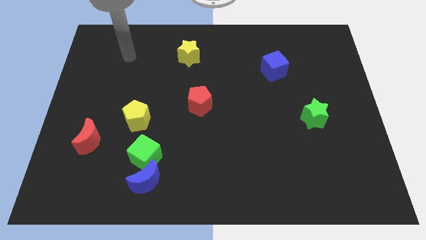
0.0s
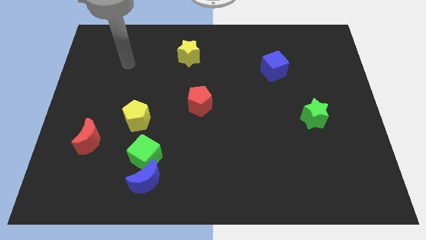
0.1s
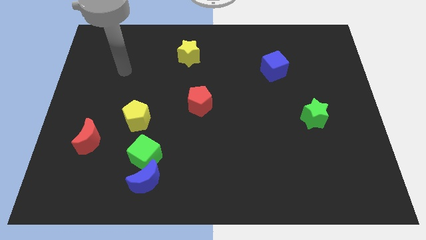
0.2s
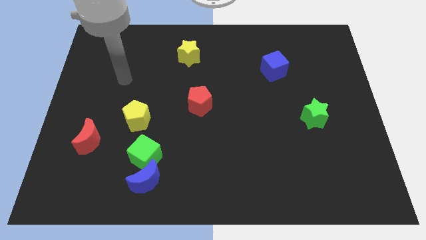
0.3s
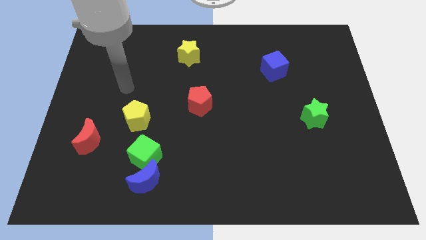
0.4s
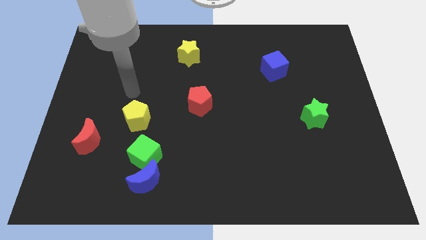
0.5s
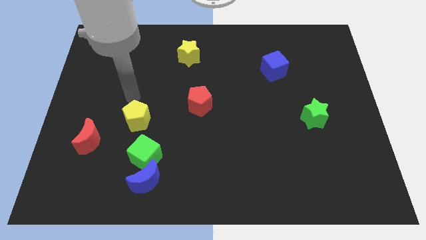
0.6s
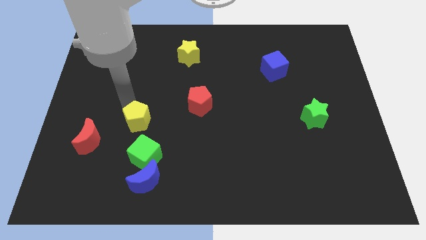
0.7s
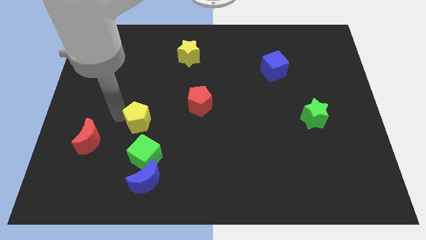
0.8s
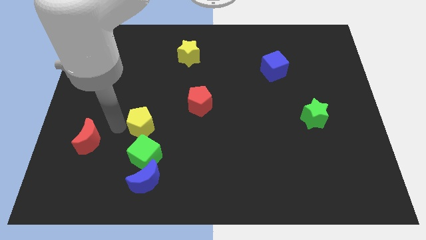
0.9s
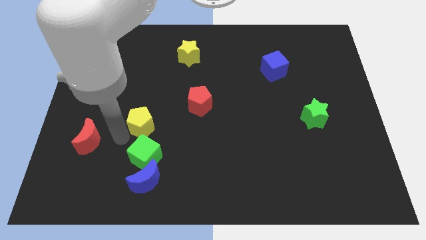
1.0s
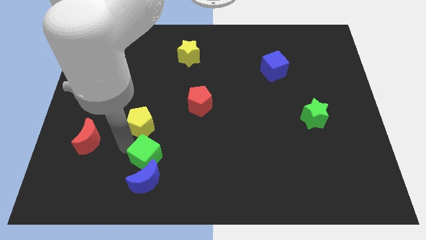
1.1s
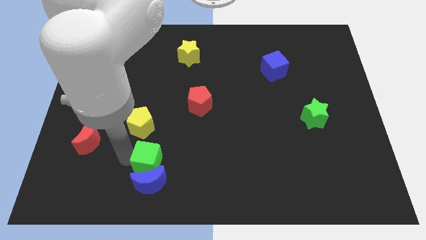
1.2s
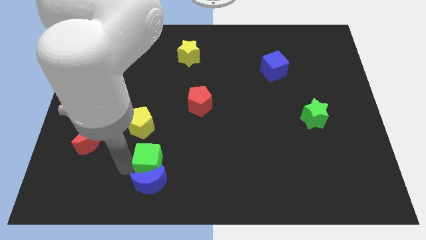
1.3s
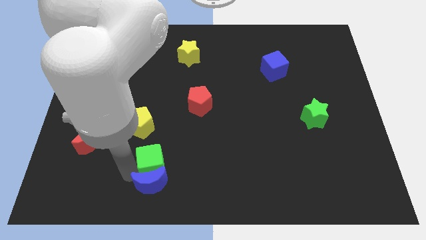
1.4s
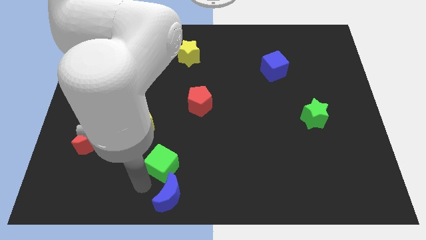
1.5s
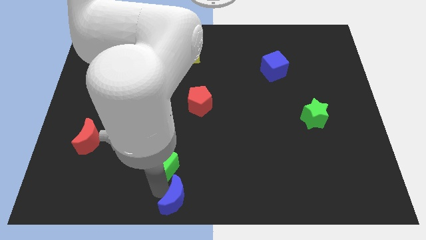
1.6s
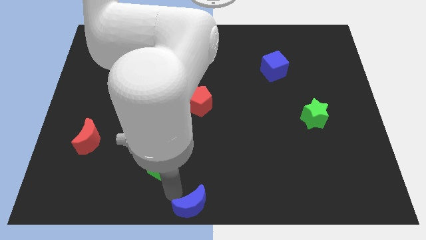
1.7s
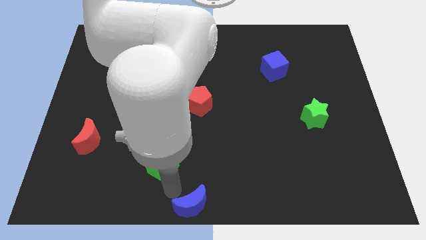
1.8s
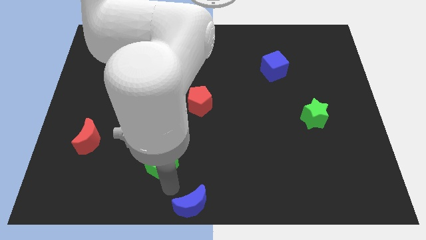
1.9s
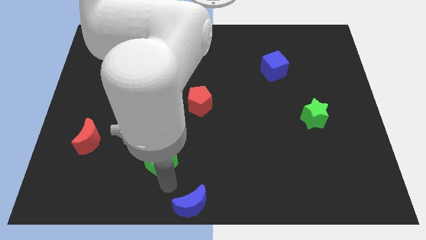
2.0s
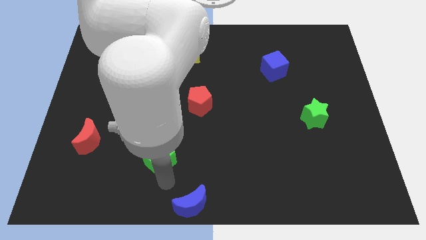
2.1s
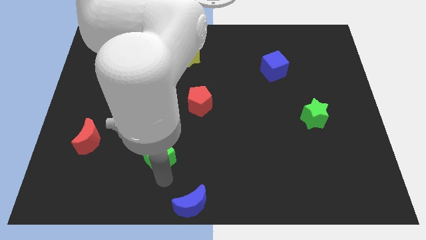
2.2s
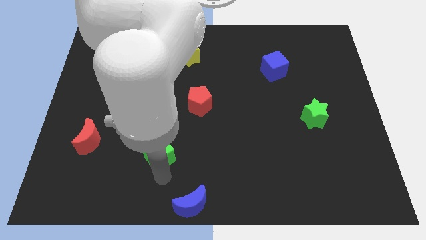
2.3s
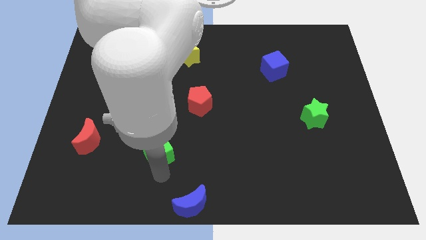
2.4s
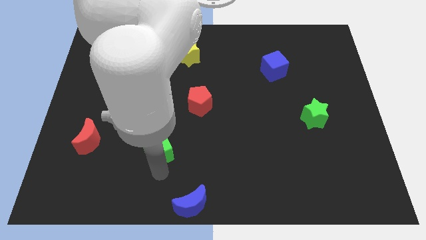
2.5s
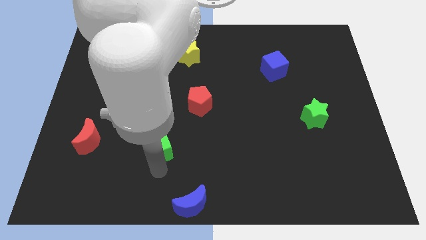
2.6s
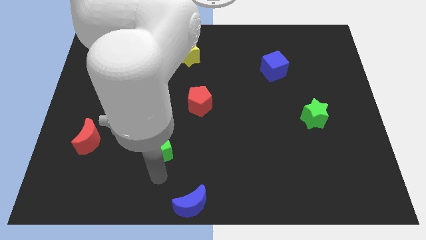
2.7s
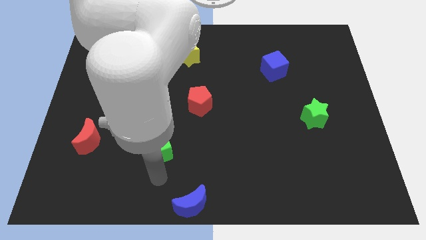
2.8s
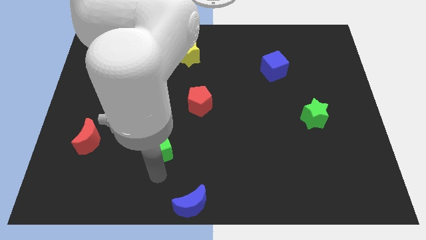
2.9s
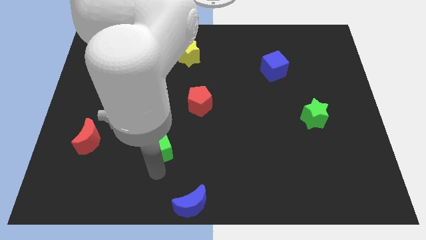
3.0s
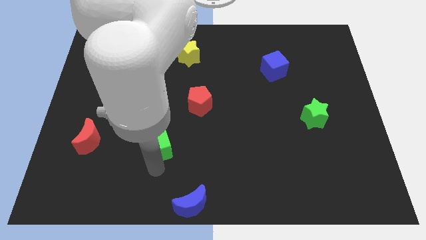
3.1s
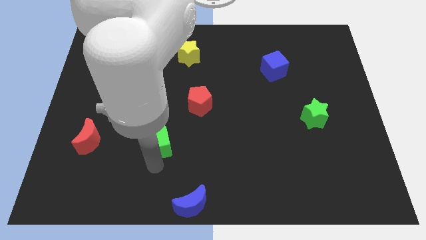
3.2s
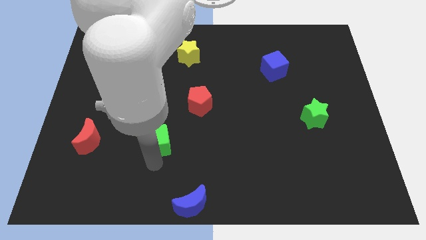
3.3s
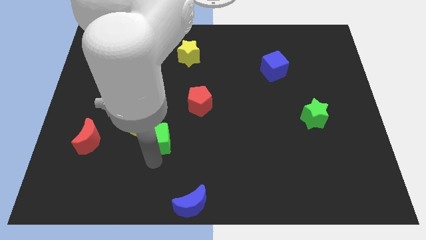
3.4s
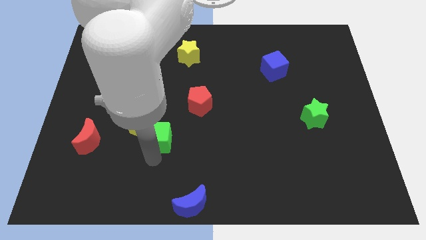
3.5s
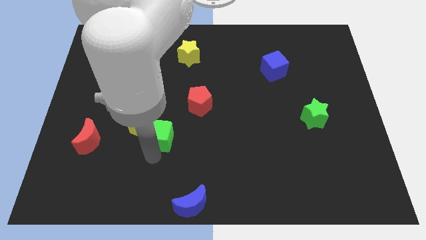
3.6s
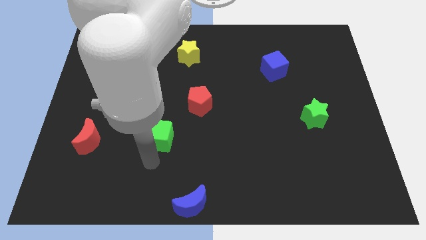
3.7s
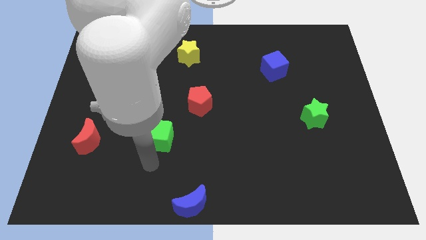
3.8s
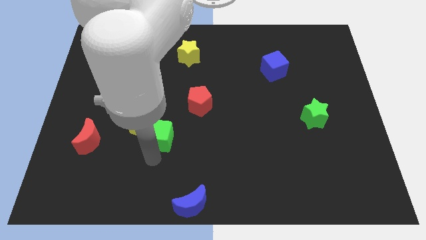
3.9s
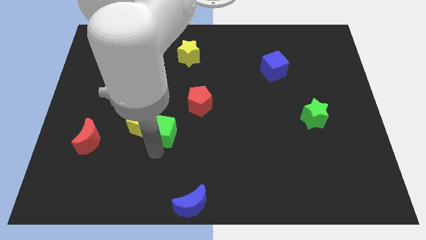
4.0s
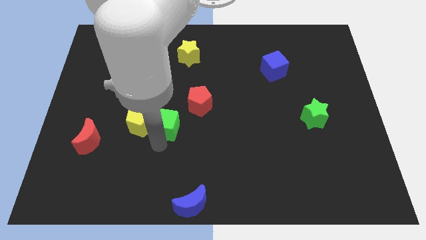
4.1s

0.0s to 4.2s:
slide the green cube a bit up

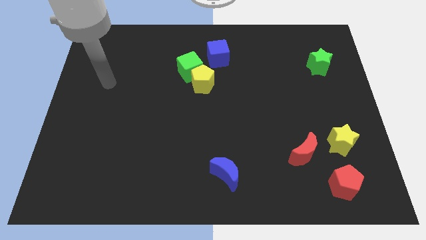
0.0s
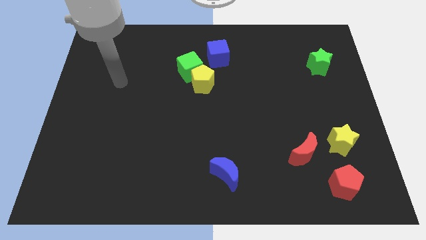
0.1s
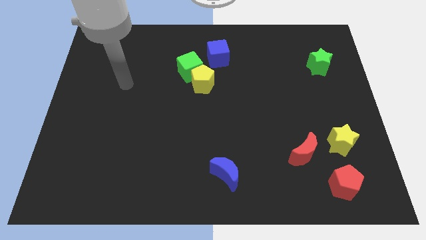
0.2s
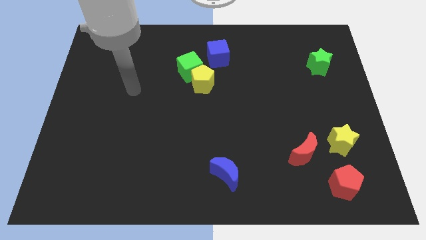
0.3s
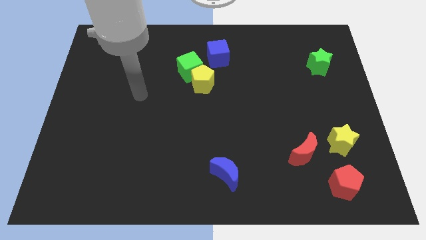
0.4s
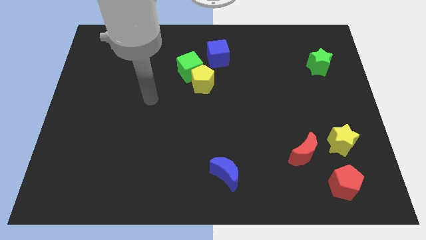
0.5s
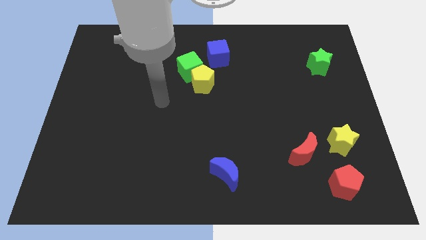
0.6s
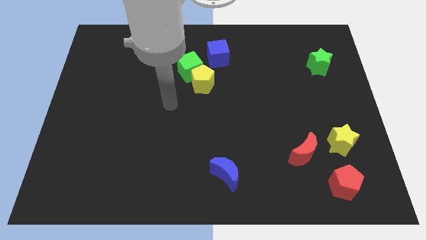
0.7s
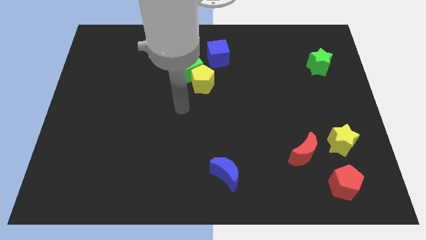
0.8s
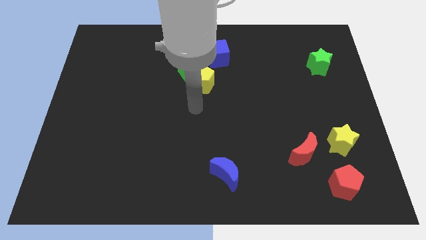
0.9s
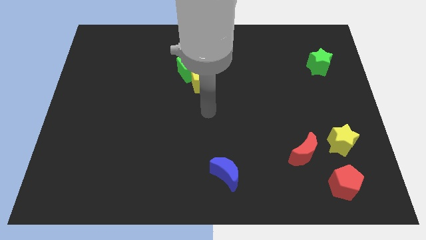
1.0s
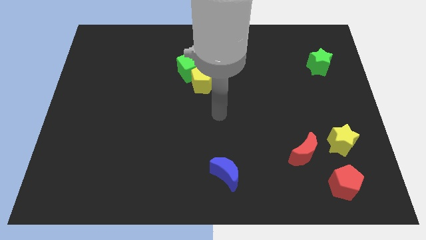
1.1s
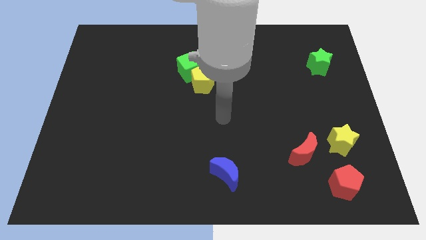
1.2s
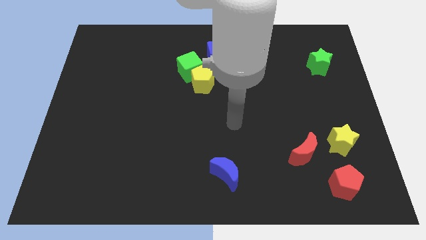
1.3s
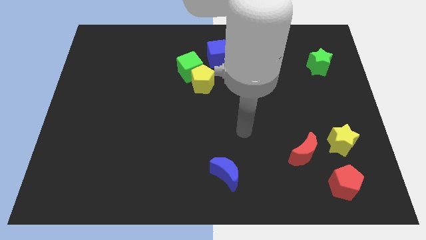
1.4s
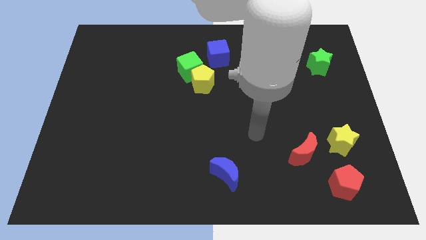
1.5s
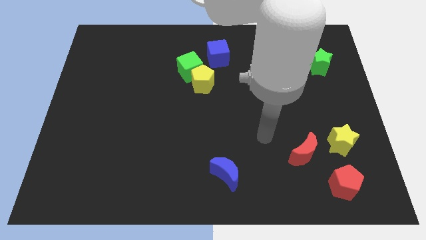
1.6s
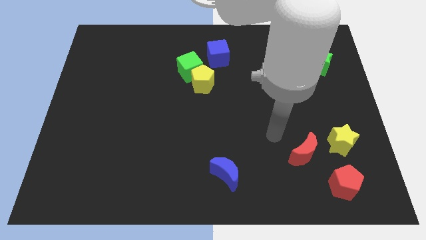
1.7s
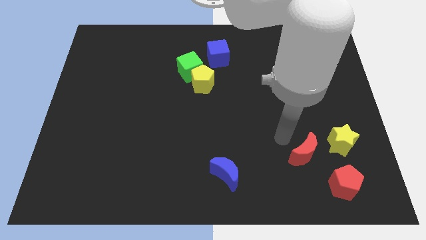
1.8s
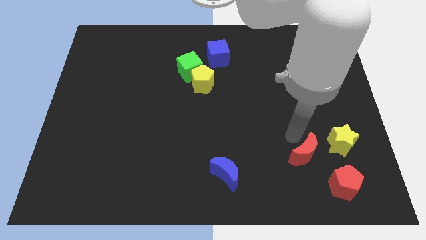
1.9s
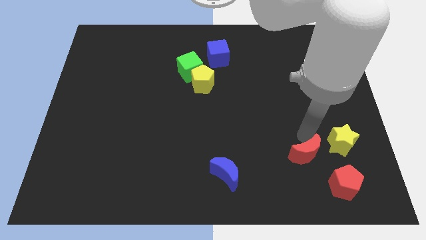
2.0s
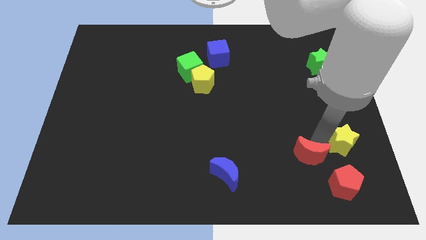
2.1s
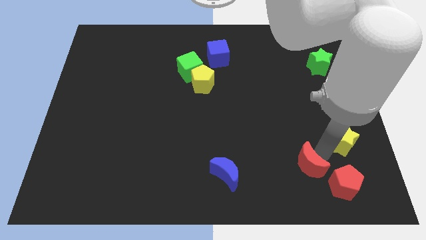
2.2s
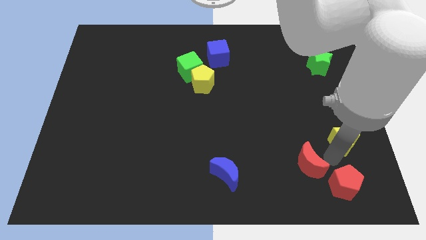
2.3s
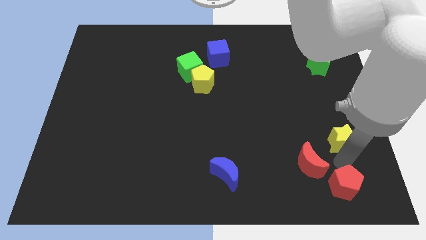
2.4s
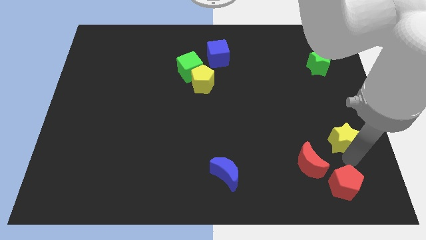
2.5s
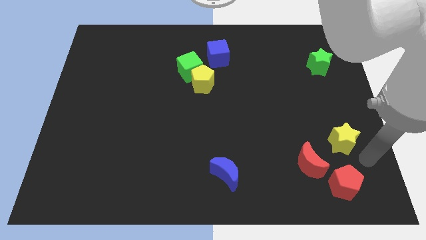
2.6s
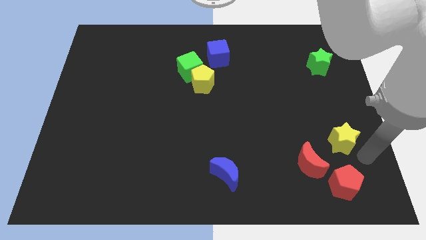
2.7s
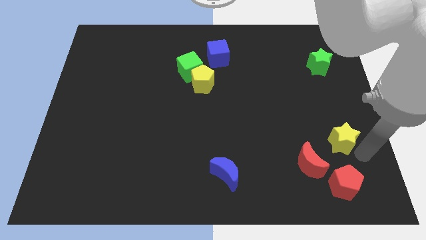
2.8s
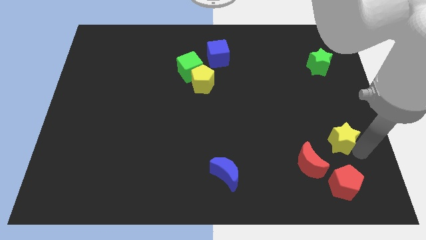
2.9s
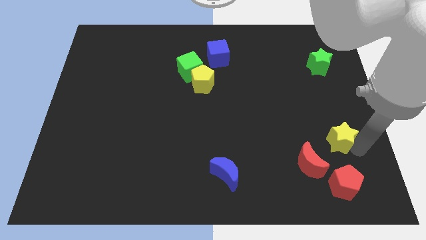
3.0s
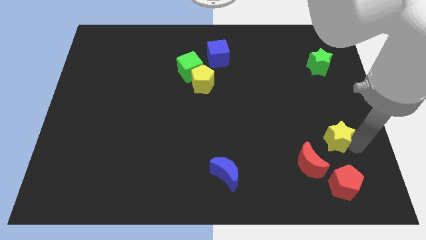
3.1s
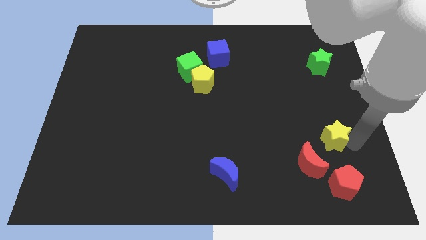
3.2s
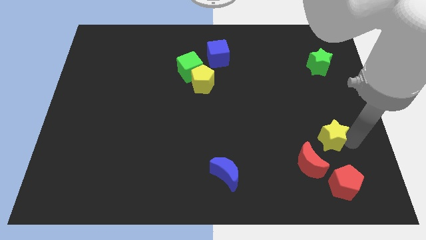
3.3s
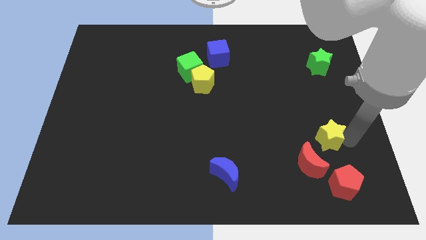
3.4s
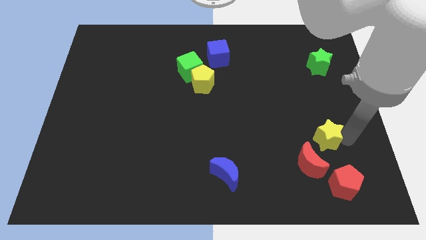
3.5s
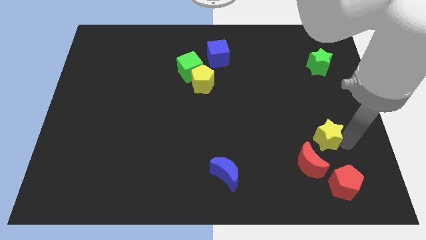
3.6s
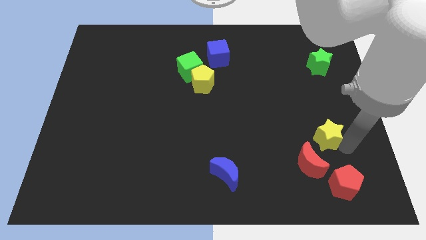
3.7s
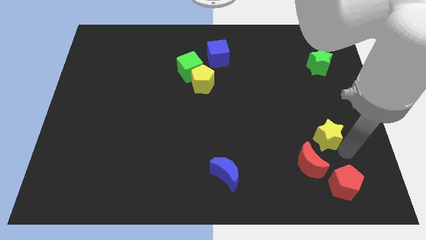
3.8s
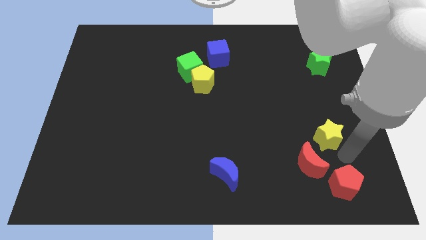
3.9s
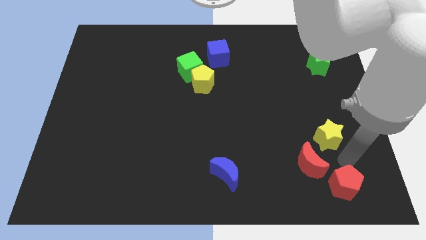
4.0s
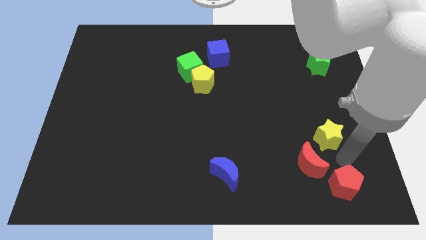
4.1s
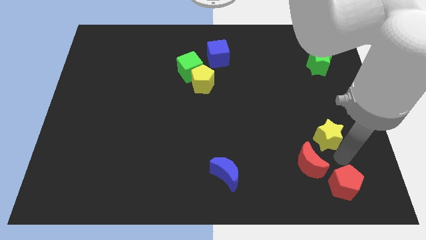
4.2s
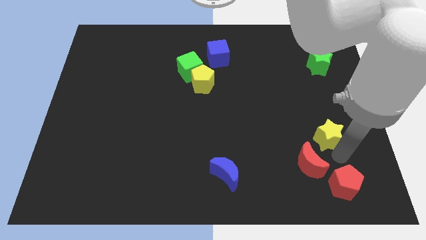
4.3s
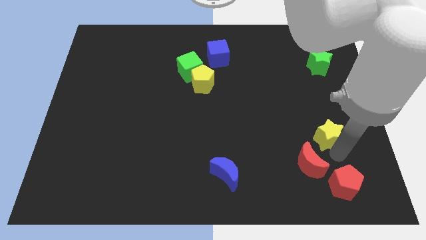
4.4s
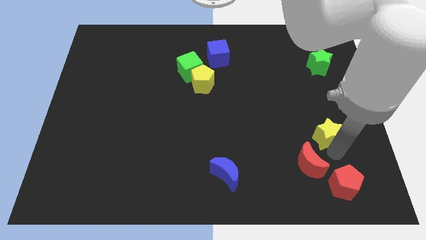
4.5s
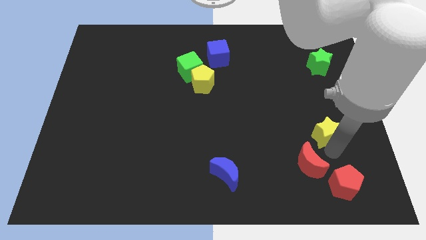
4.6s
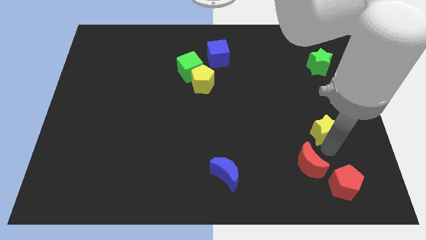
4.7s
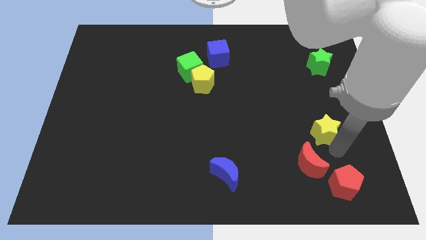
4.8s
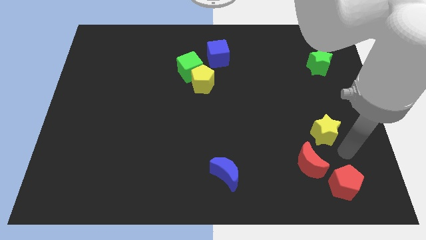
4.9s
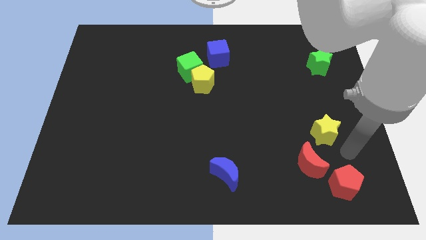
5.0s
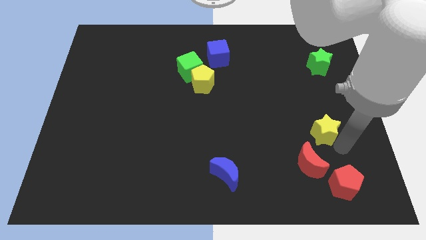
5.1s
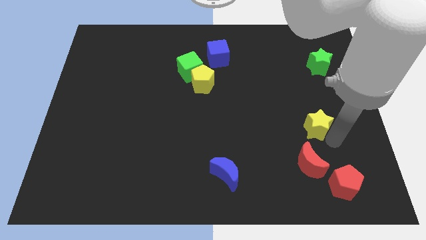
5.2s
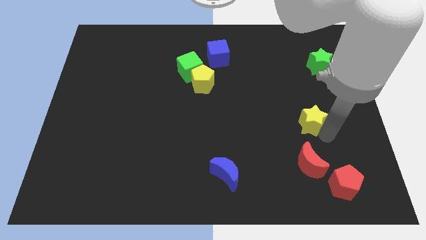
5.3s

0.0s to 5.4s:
push the yellow star upwards and to the left diagonally slightly
